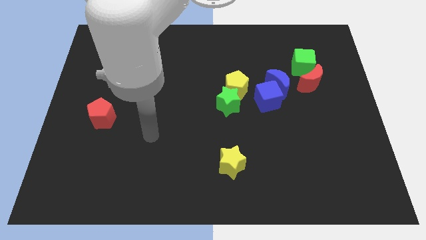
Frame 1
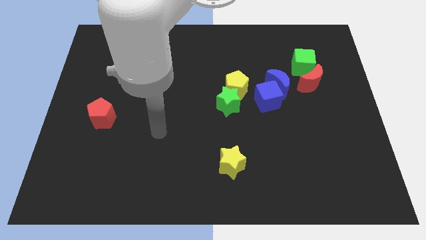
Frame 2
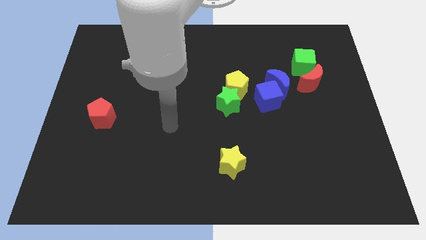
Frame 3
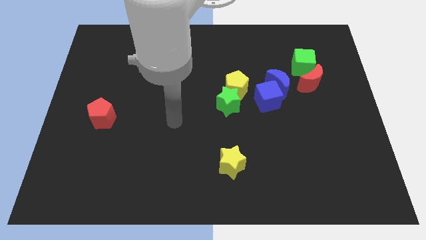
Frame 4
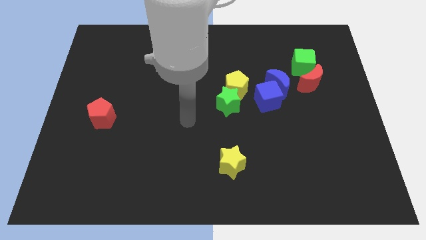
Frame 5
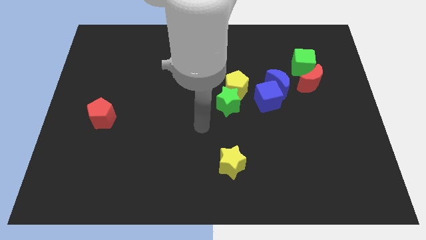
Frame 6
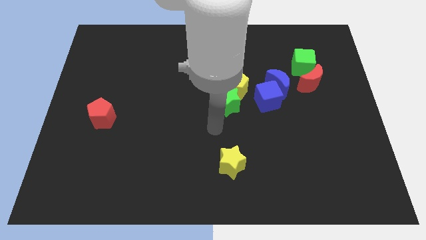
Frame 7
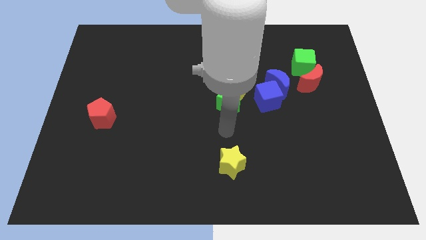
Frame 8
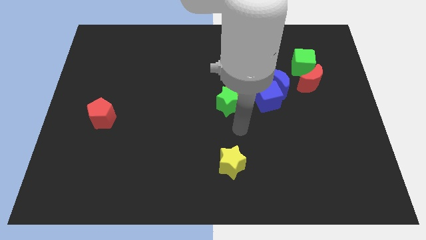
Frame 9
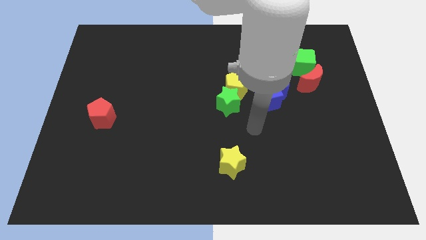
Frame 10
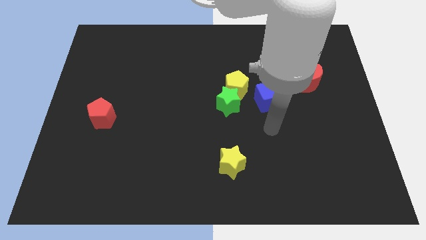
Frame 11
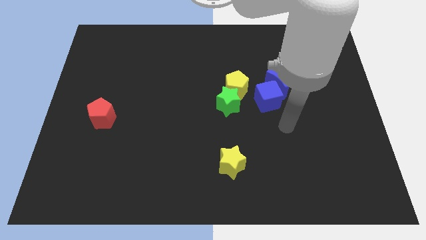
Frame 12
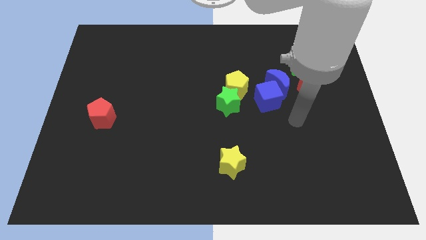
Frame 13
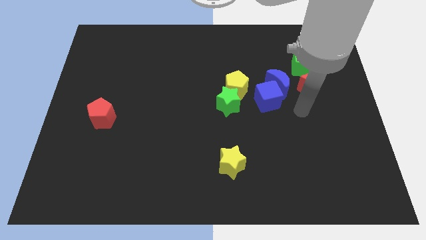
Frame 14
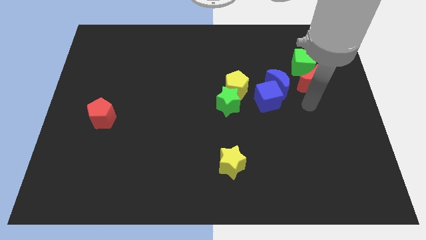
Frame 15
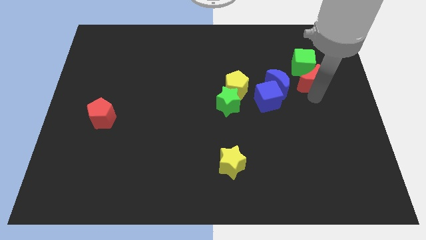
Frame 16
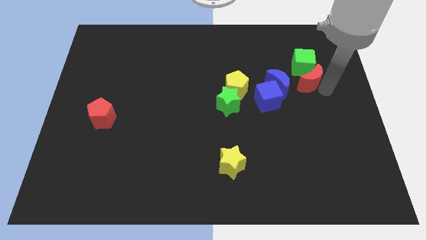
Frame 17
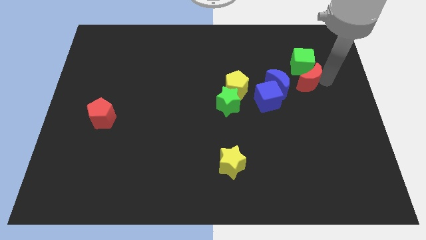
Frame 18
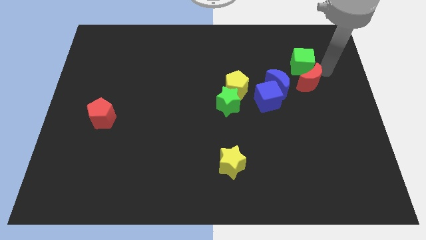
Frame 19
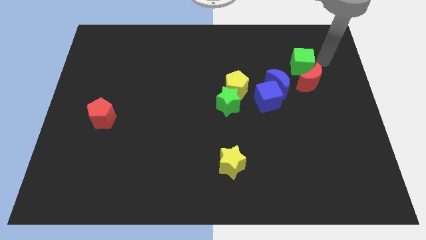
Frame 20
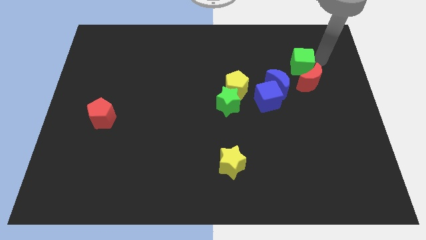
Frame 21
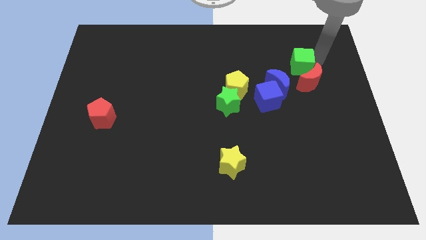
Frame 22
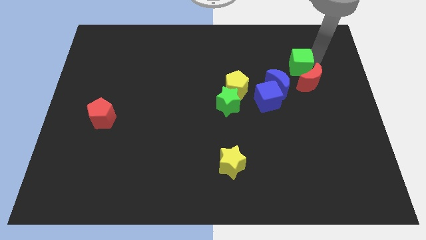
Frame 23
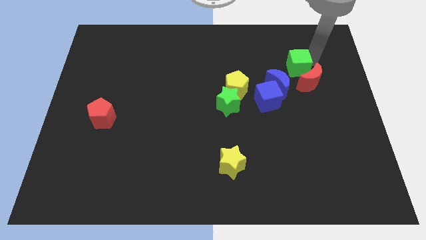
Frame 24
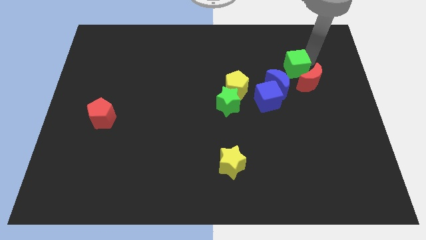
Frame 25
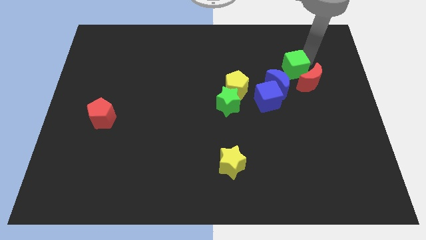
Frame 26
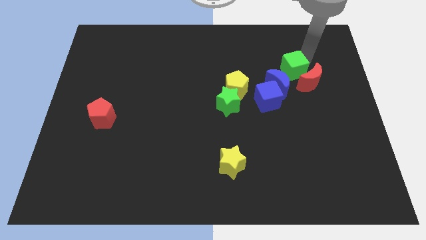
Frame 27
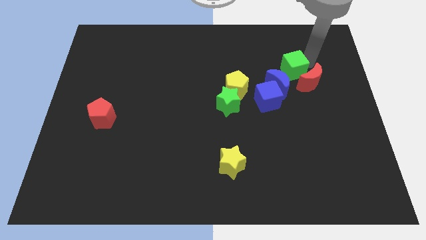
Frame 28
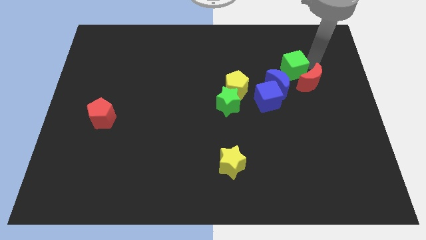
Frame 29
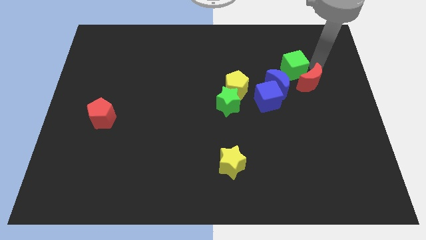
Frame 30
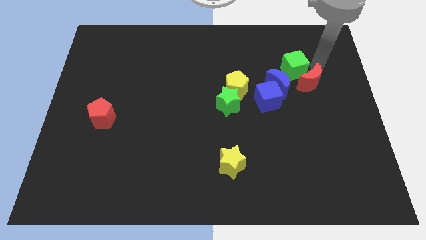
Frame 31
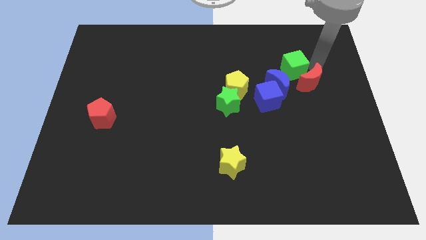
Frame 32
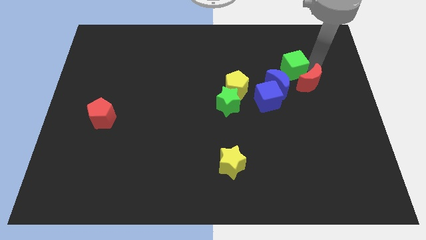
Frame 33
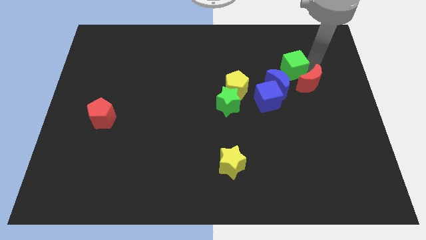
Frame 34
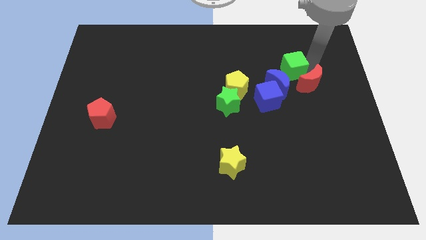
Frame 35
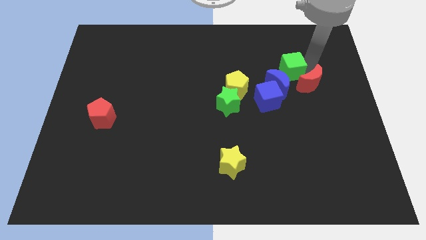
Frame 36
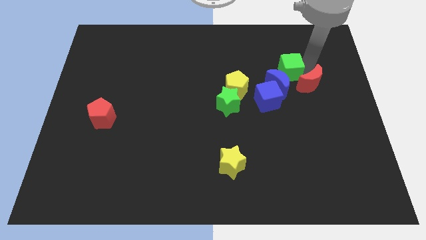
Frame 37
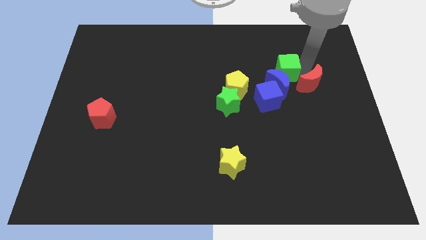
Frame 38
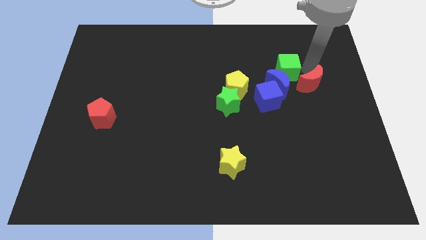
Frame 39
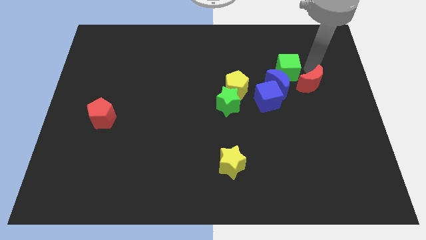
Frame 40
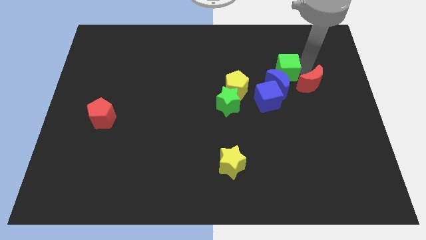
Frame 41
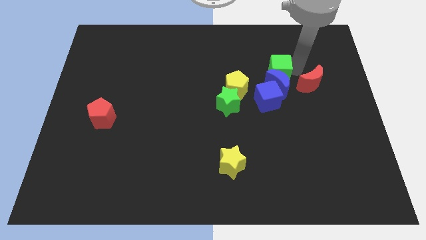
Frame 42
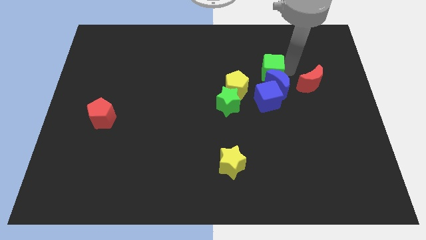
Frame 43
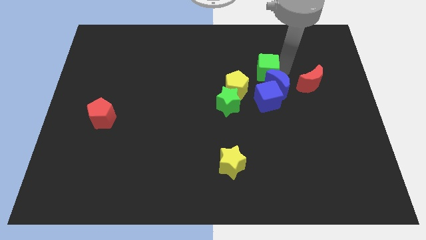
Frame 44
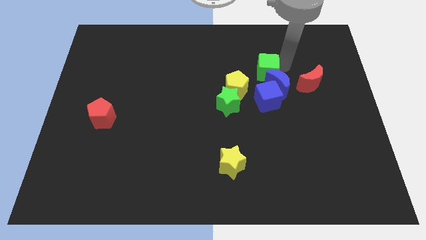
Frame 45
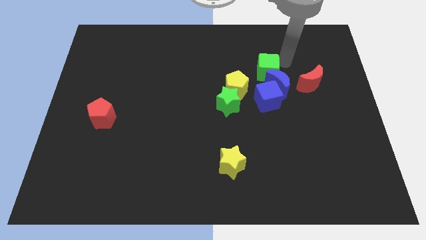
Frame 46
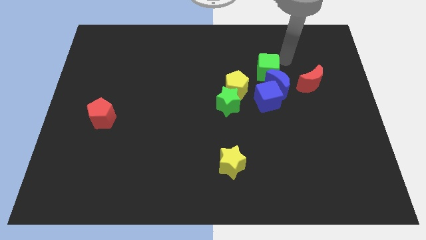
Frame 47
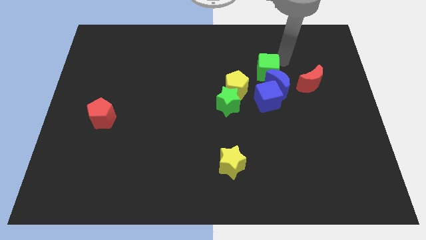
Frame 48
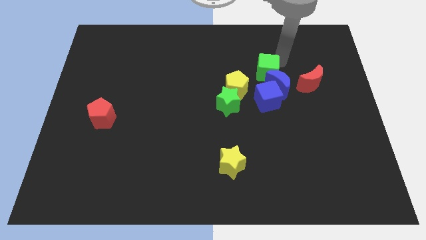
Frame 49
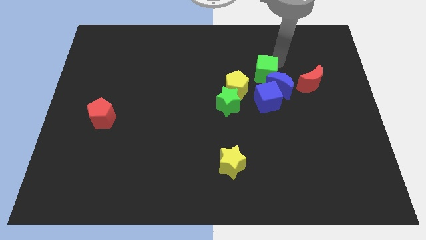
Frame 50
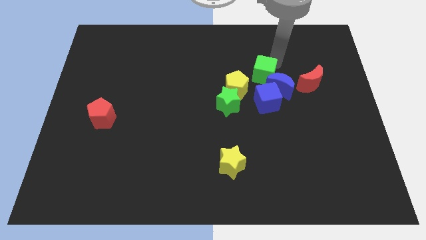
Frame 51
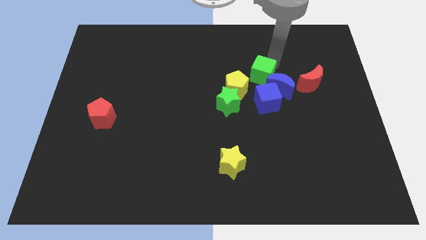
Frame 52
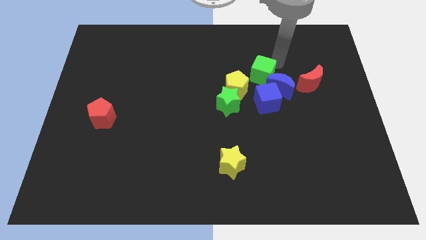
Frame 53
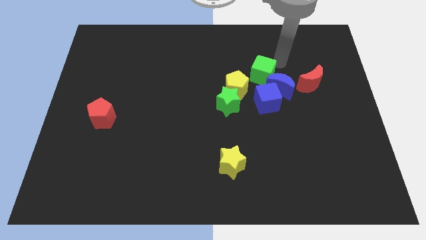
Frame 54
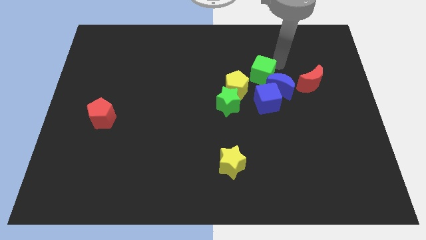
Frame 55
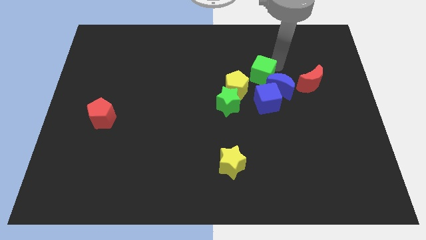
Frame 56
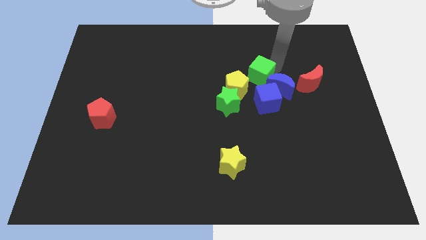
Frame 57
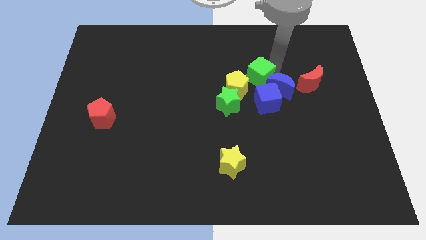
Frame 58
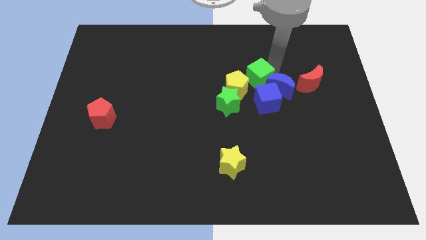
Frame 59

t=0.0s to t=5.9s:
put the green cube to the top left of the blue cube

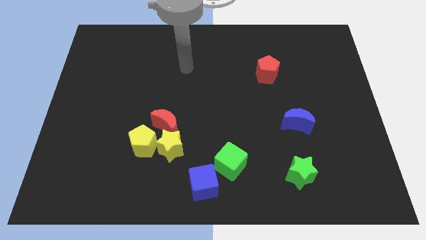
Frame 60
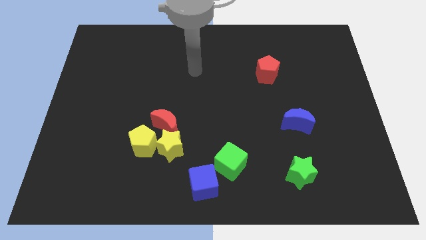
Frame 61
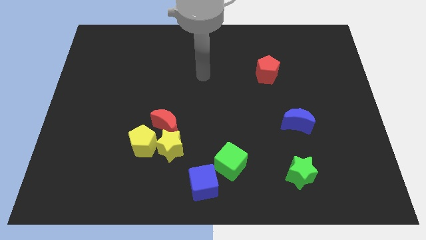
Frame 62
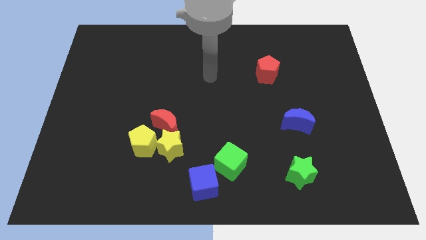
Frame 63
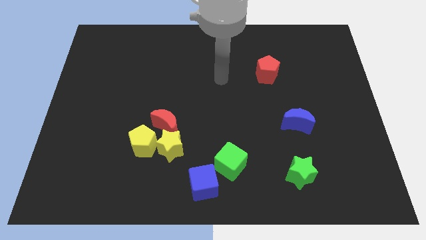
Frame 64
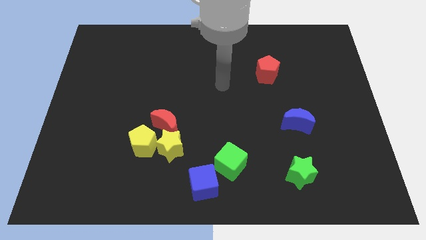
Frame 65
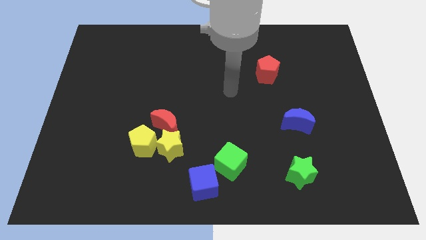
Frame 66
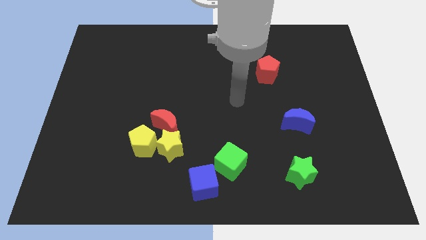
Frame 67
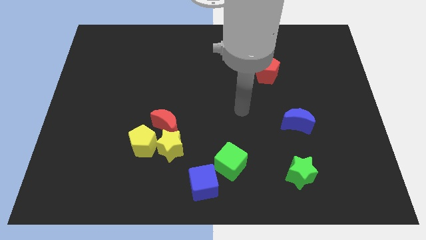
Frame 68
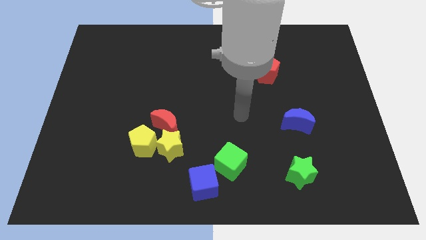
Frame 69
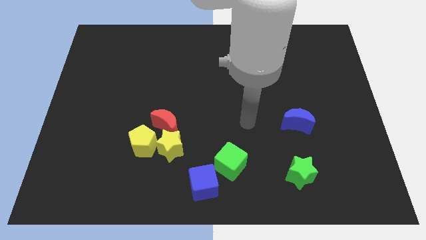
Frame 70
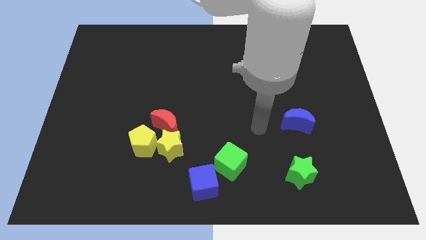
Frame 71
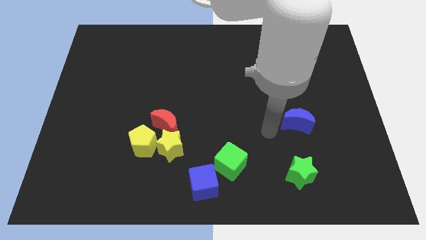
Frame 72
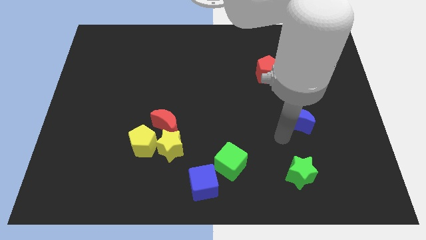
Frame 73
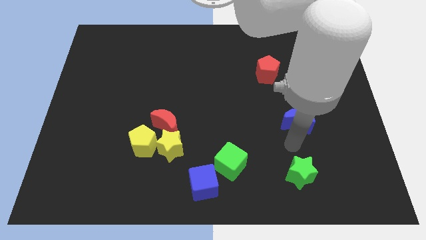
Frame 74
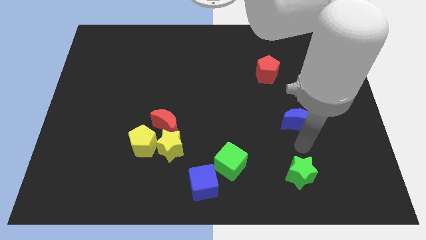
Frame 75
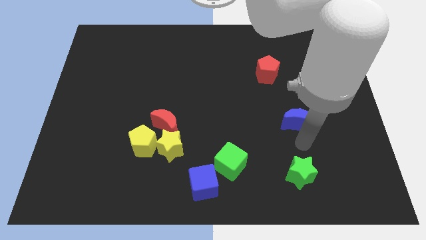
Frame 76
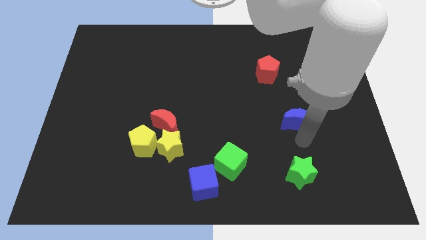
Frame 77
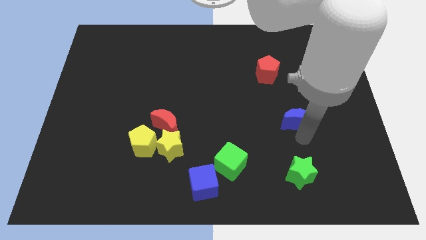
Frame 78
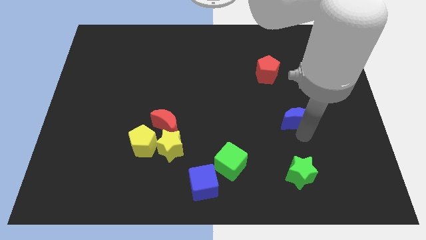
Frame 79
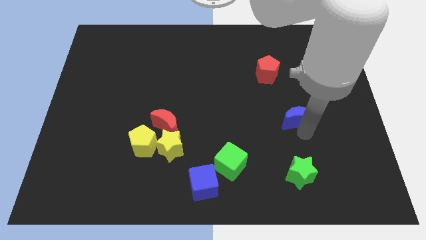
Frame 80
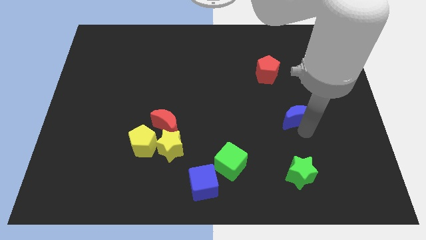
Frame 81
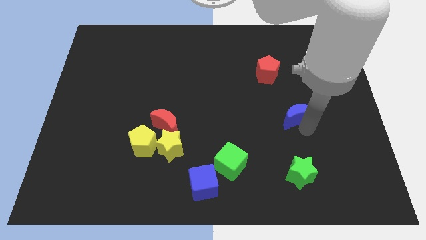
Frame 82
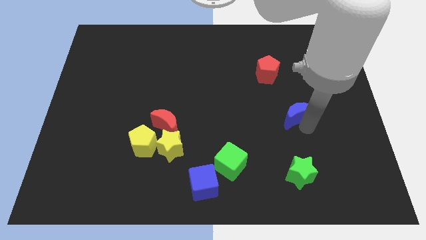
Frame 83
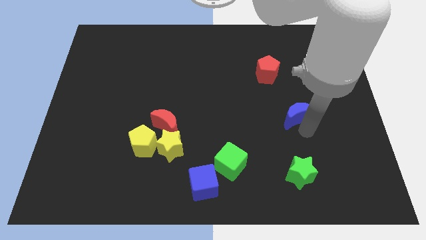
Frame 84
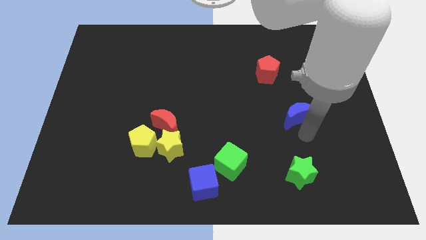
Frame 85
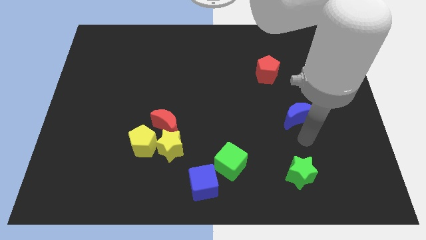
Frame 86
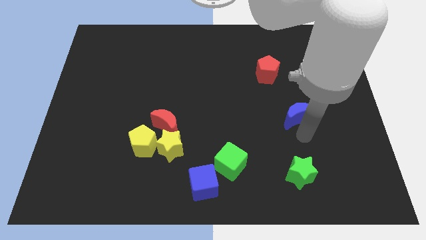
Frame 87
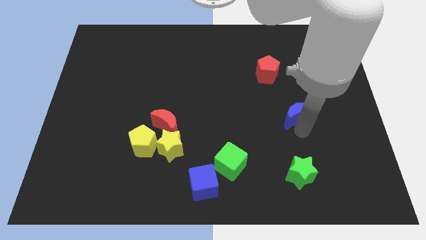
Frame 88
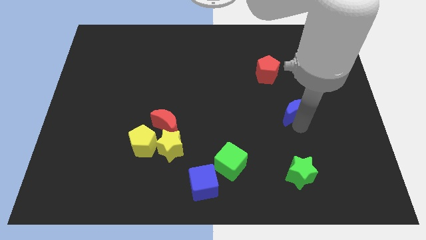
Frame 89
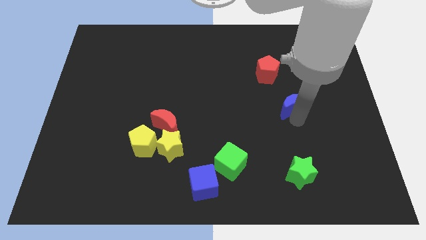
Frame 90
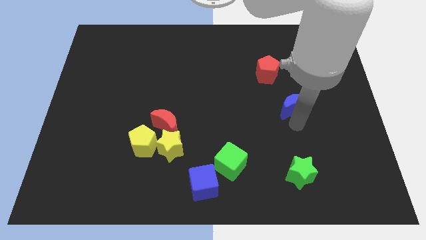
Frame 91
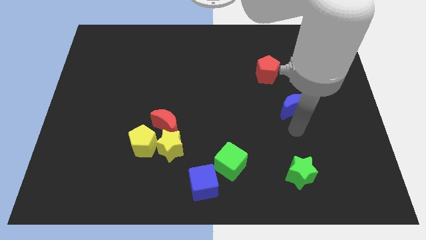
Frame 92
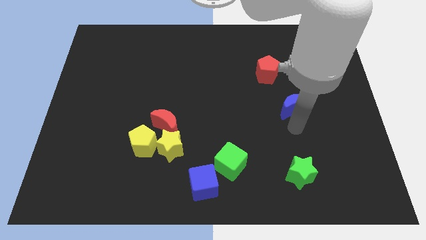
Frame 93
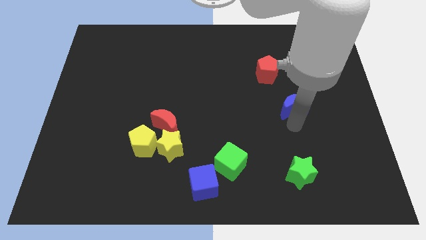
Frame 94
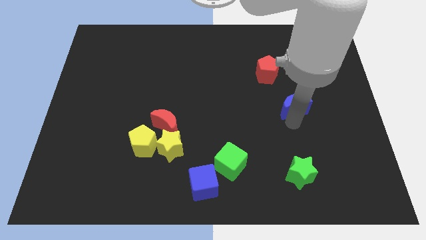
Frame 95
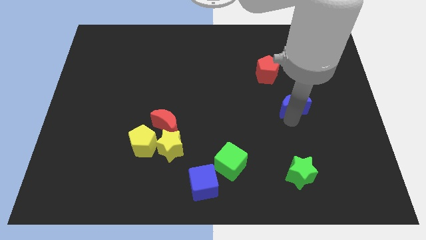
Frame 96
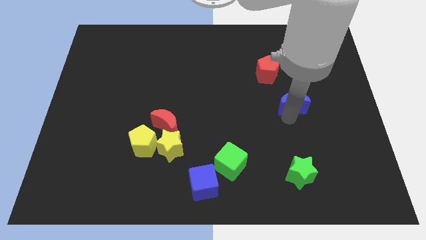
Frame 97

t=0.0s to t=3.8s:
slide the blue moon diagonally down and to the right of the red pentagon
